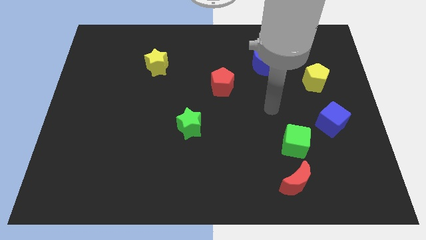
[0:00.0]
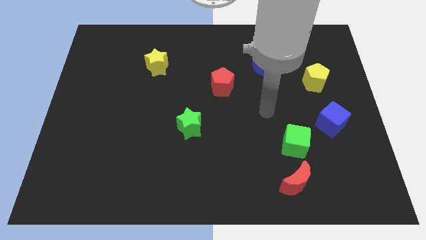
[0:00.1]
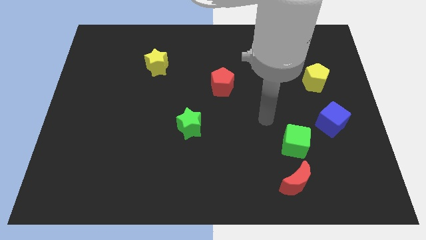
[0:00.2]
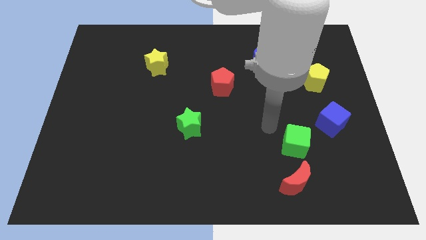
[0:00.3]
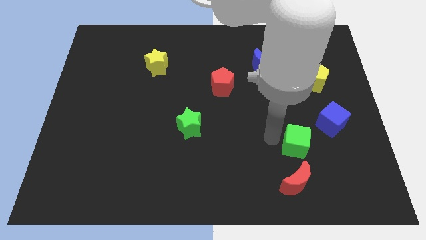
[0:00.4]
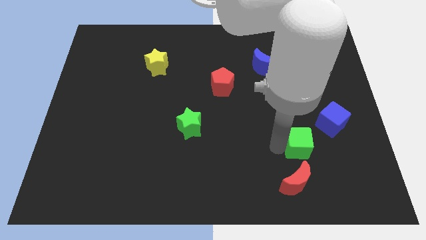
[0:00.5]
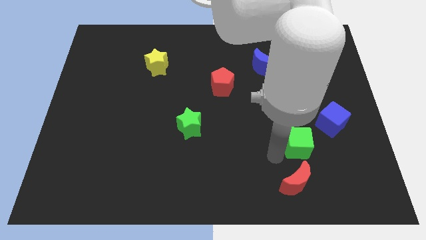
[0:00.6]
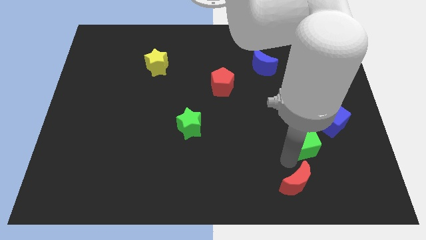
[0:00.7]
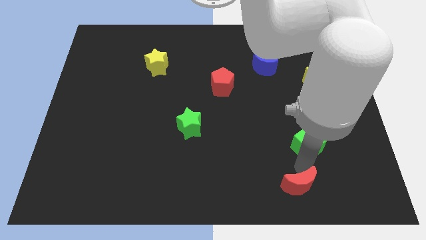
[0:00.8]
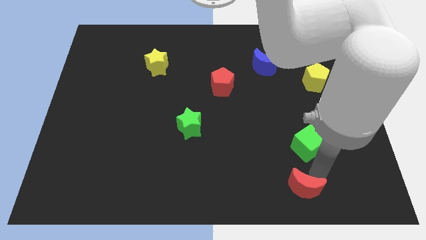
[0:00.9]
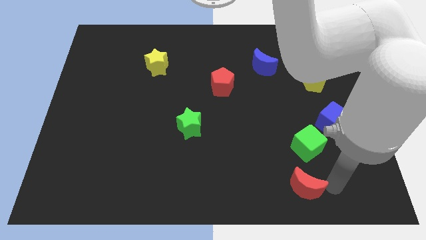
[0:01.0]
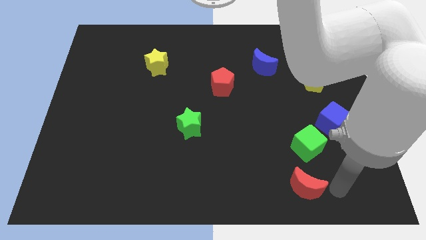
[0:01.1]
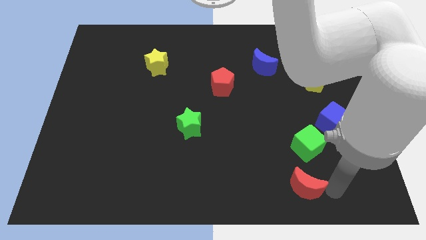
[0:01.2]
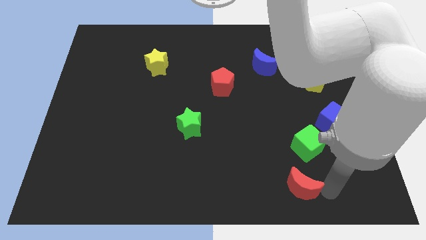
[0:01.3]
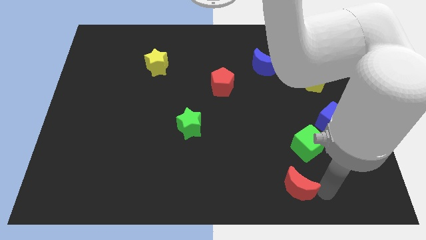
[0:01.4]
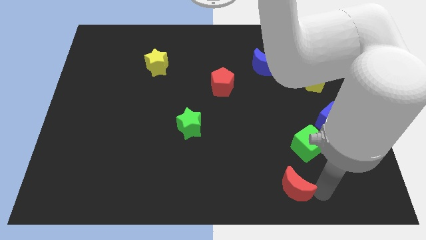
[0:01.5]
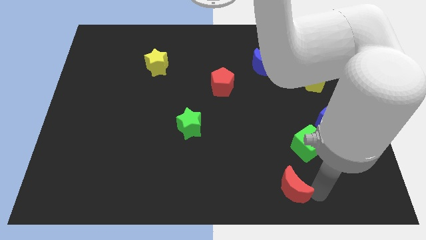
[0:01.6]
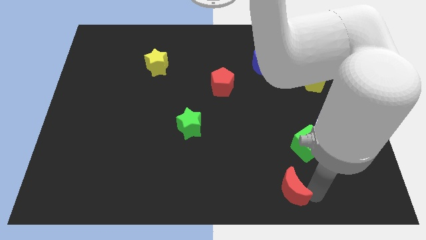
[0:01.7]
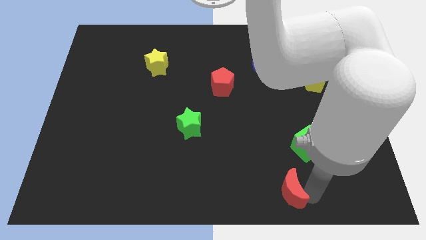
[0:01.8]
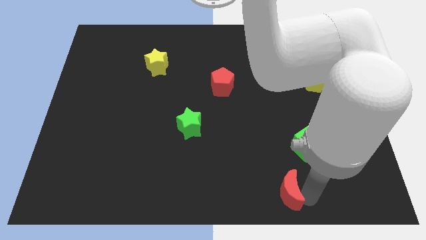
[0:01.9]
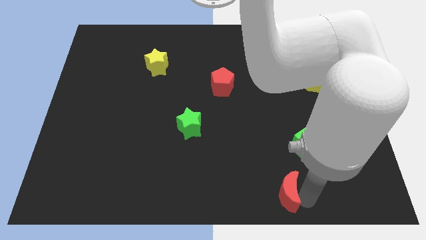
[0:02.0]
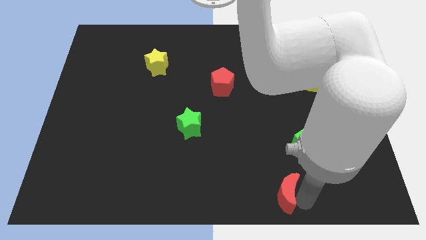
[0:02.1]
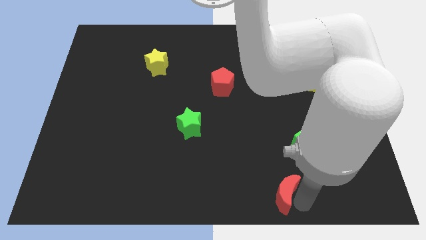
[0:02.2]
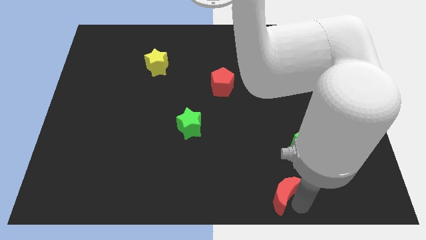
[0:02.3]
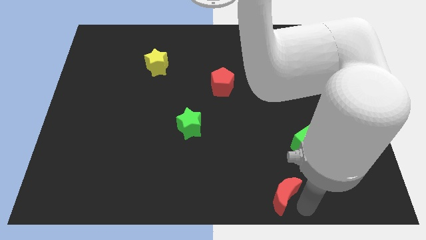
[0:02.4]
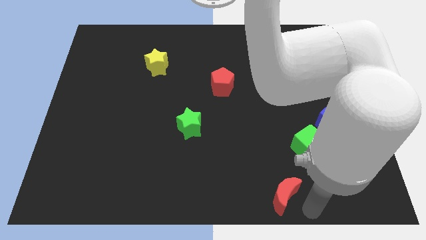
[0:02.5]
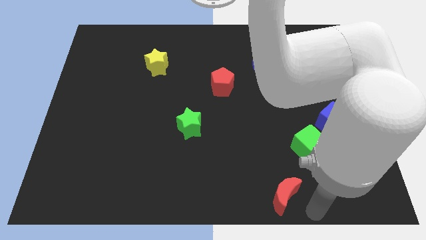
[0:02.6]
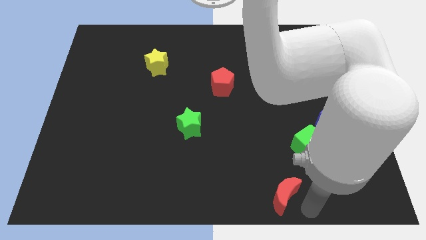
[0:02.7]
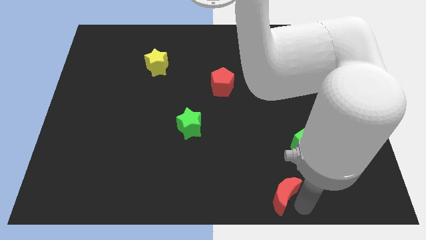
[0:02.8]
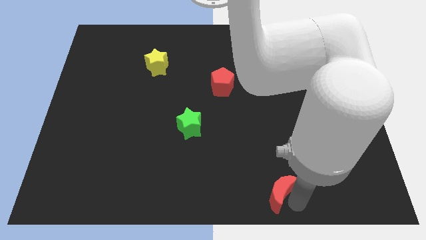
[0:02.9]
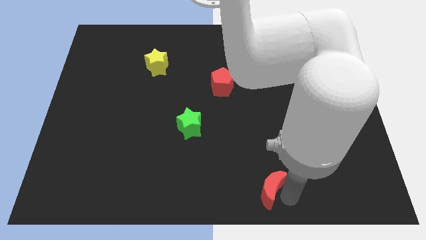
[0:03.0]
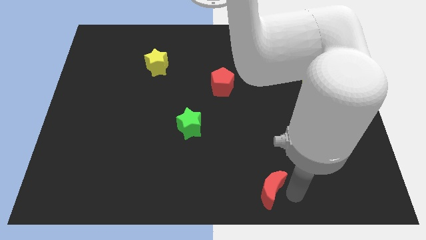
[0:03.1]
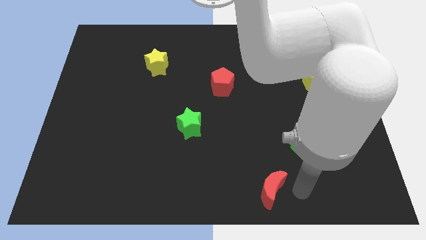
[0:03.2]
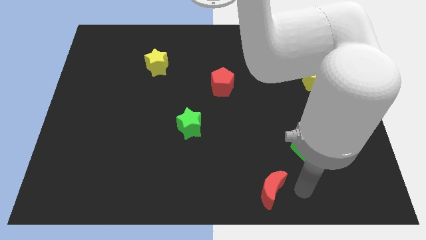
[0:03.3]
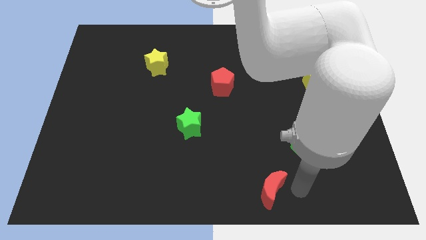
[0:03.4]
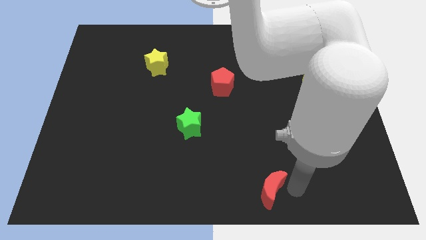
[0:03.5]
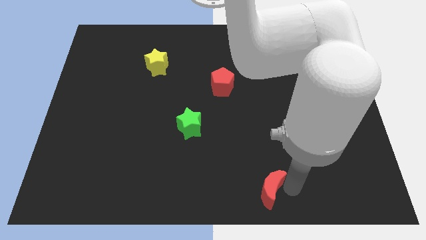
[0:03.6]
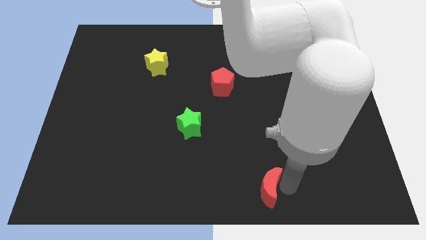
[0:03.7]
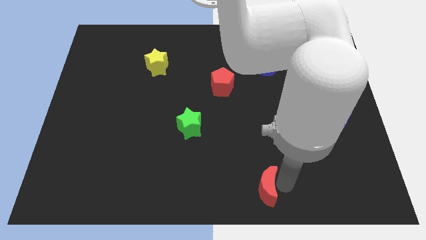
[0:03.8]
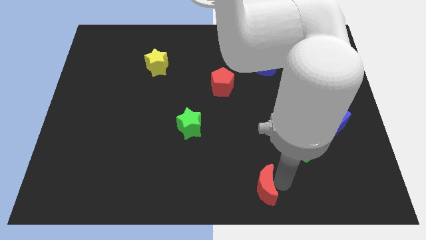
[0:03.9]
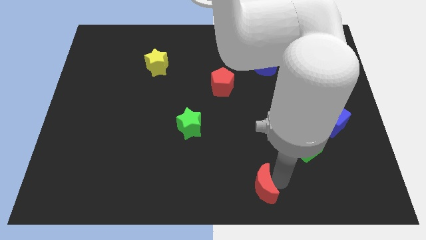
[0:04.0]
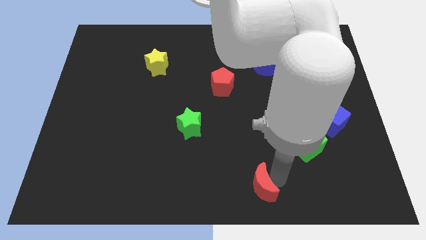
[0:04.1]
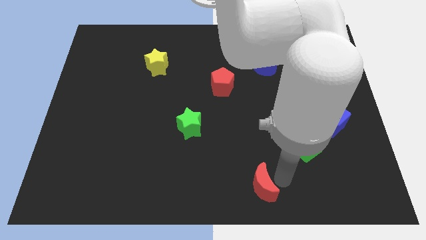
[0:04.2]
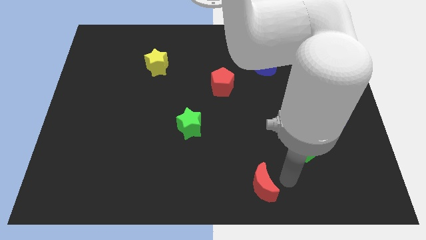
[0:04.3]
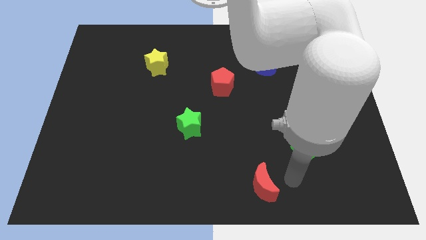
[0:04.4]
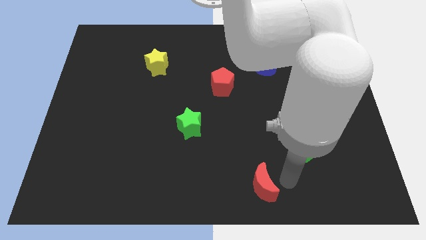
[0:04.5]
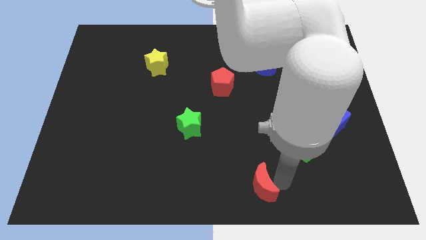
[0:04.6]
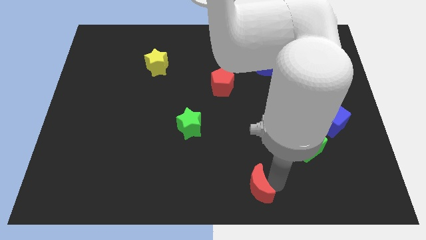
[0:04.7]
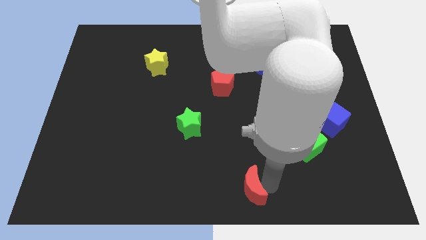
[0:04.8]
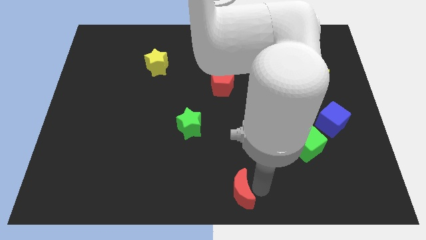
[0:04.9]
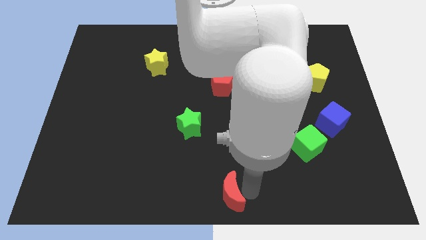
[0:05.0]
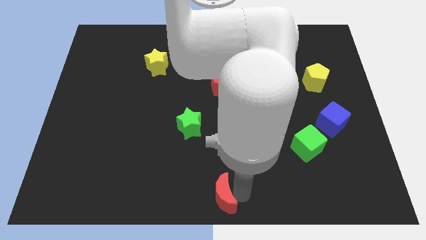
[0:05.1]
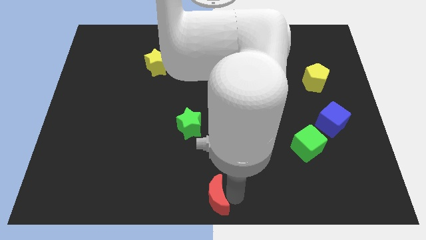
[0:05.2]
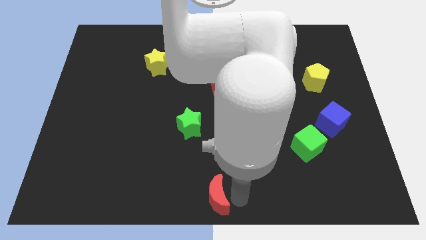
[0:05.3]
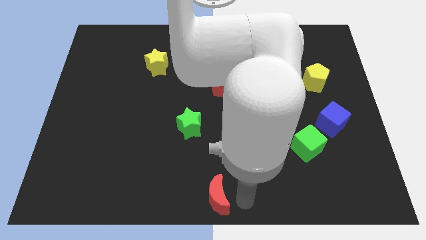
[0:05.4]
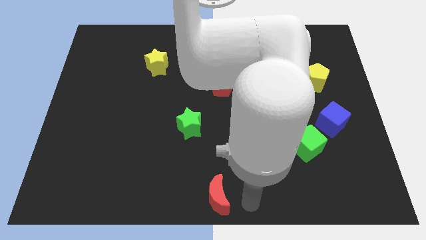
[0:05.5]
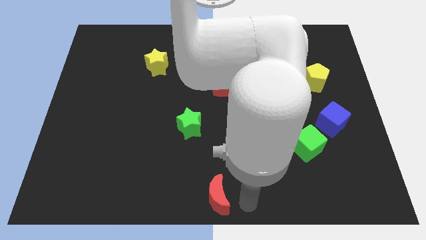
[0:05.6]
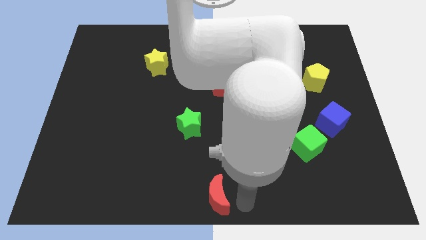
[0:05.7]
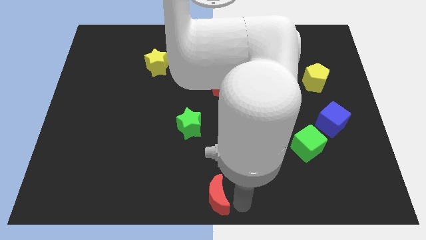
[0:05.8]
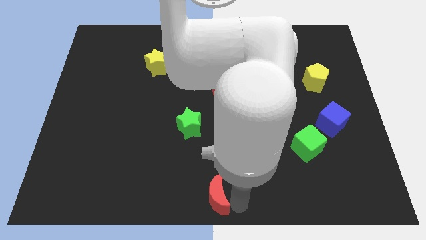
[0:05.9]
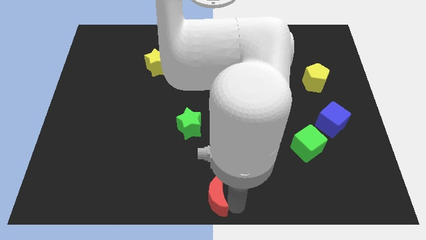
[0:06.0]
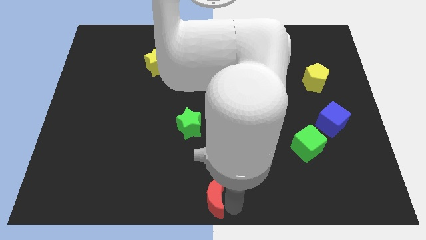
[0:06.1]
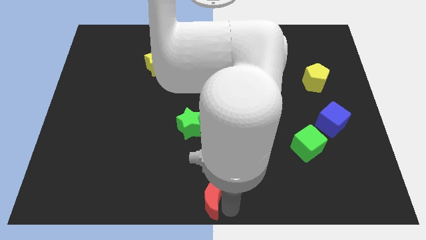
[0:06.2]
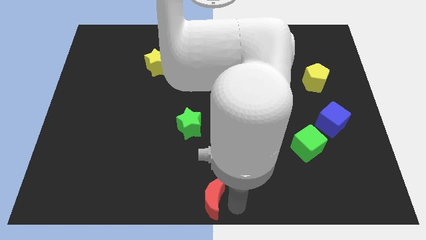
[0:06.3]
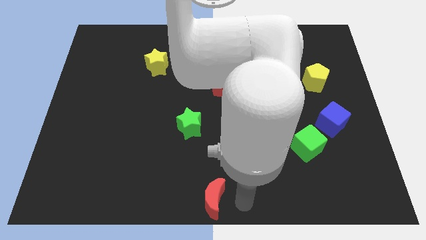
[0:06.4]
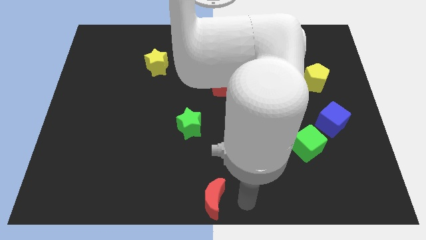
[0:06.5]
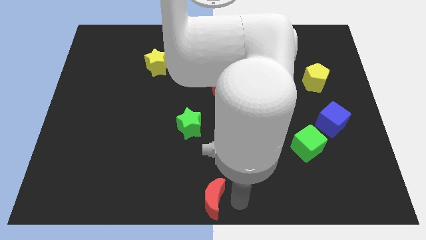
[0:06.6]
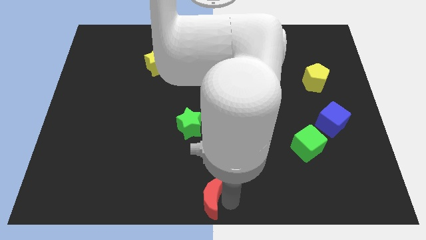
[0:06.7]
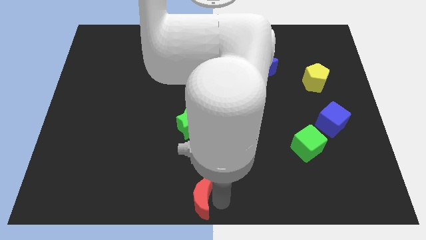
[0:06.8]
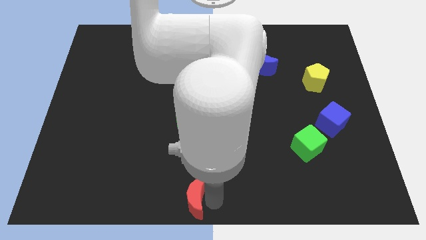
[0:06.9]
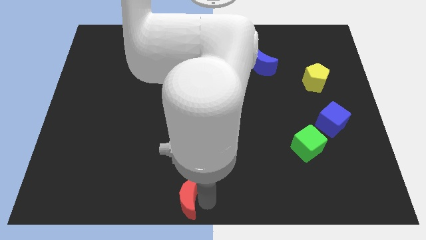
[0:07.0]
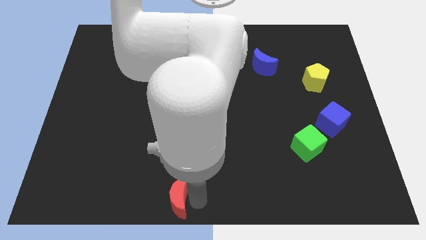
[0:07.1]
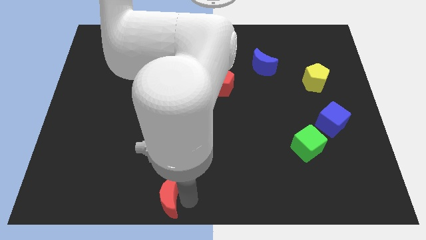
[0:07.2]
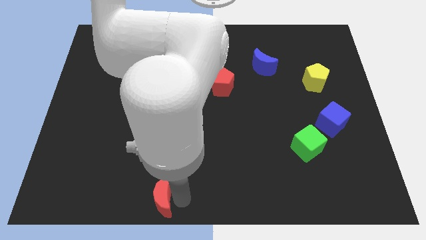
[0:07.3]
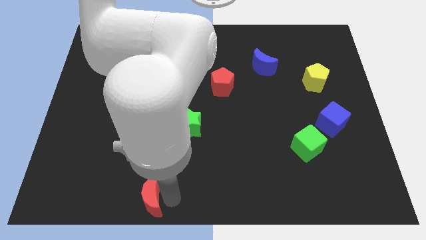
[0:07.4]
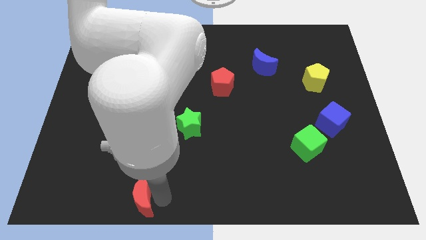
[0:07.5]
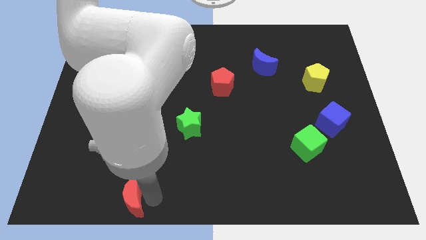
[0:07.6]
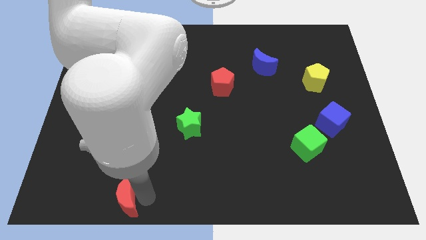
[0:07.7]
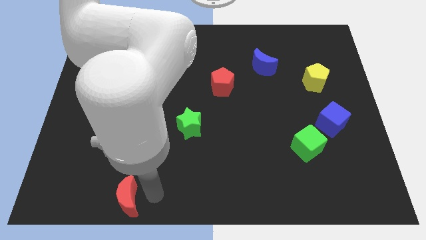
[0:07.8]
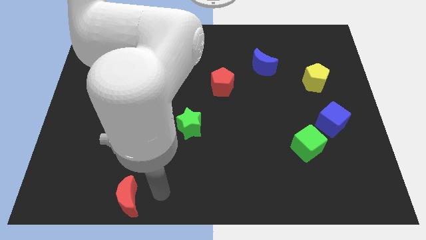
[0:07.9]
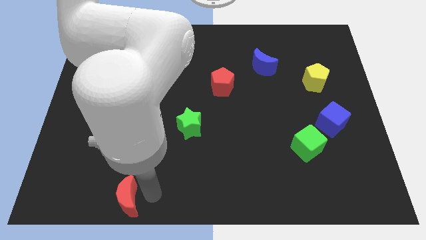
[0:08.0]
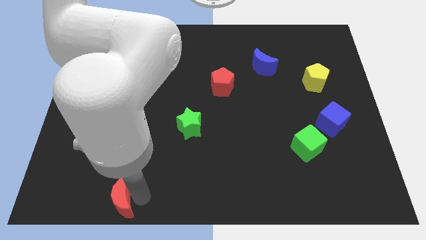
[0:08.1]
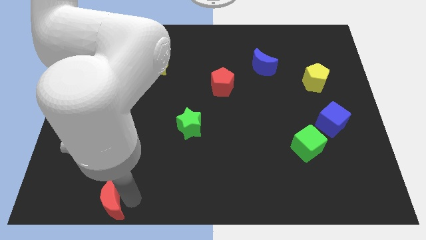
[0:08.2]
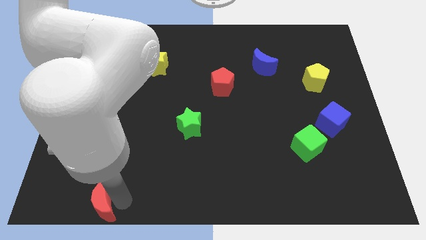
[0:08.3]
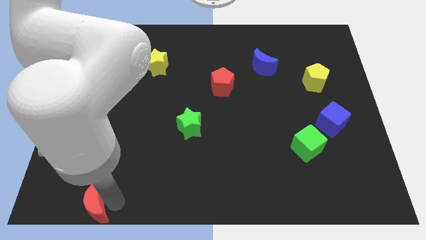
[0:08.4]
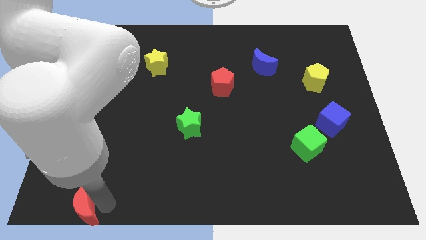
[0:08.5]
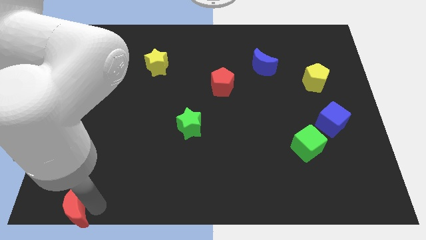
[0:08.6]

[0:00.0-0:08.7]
slide the red moon to the bottom left
